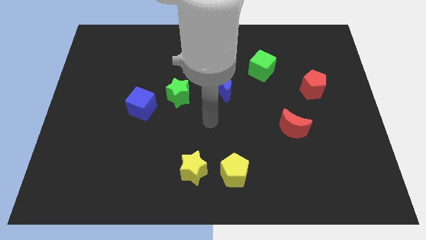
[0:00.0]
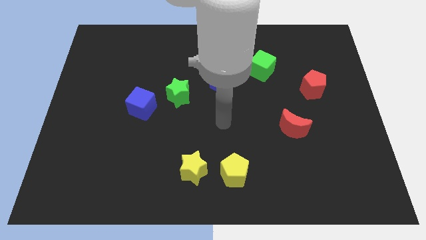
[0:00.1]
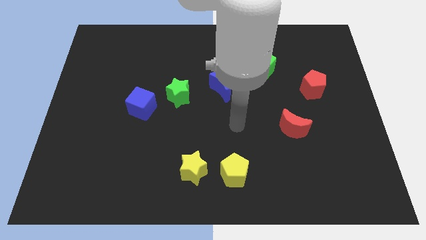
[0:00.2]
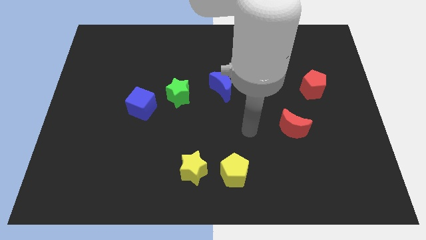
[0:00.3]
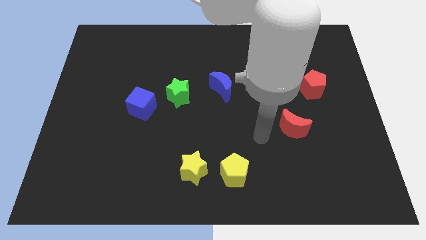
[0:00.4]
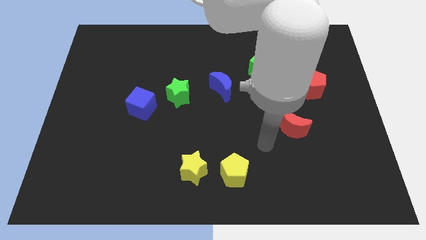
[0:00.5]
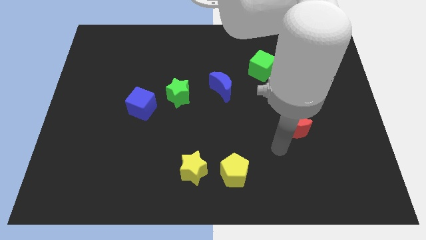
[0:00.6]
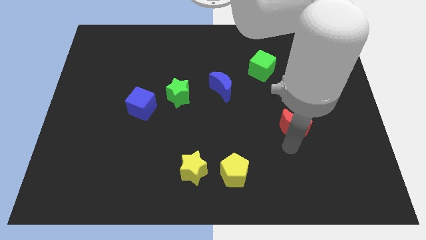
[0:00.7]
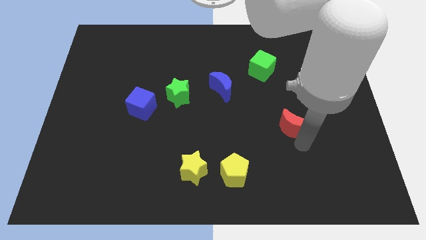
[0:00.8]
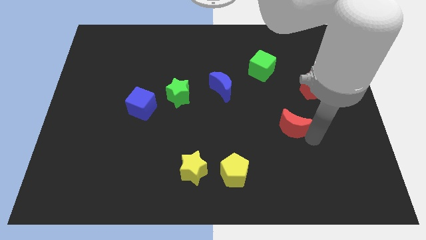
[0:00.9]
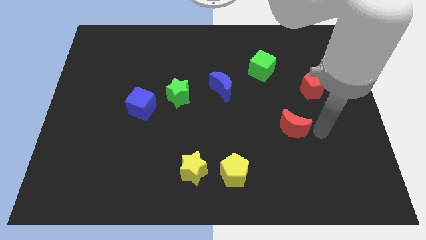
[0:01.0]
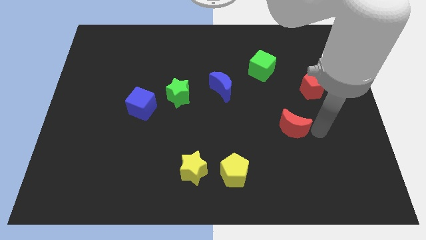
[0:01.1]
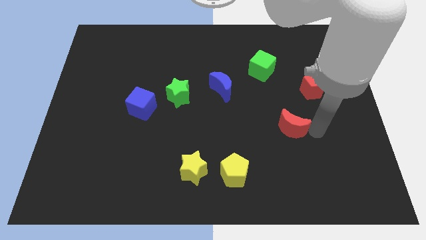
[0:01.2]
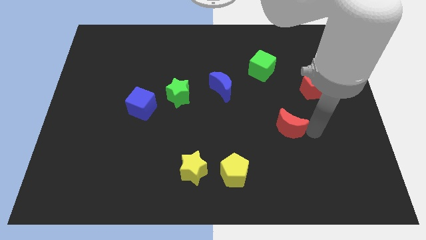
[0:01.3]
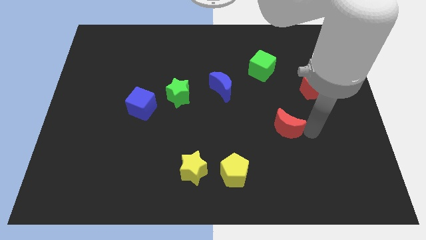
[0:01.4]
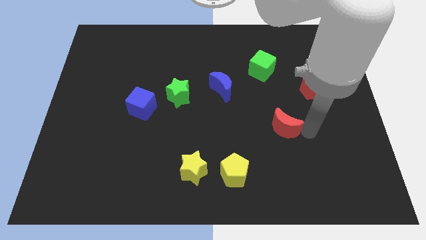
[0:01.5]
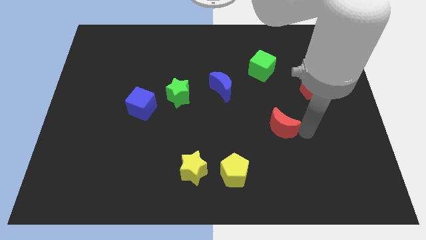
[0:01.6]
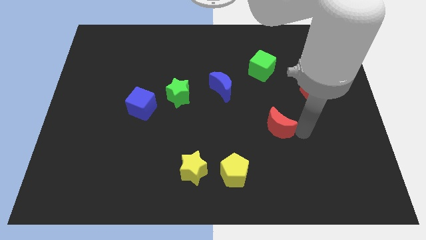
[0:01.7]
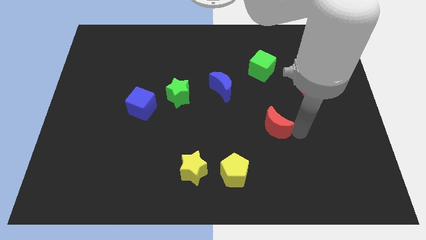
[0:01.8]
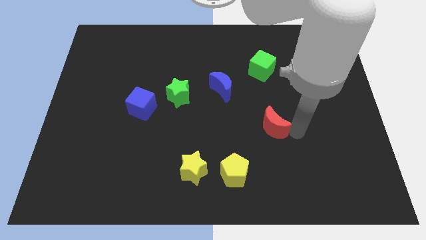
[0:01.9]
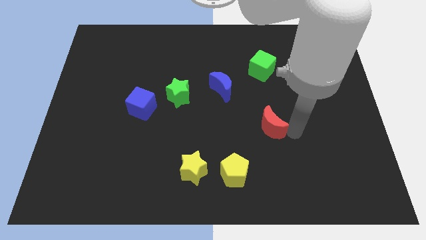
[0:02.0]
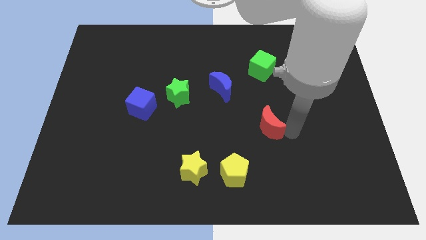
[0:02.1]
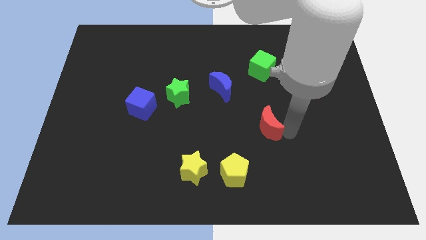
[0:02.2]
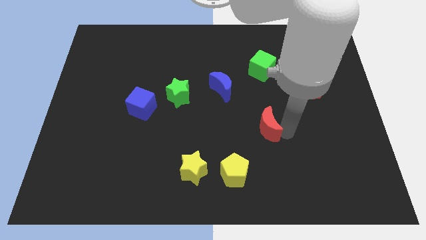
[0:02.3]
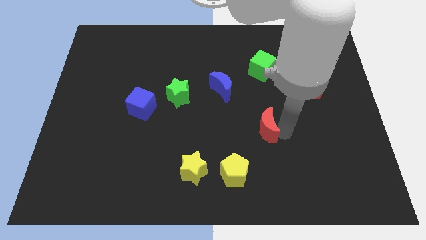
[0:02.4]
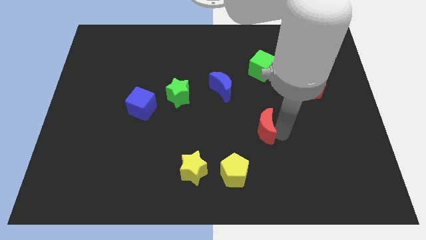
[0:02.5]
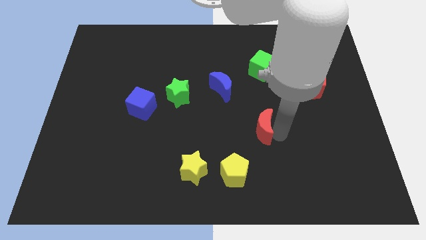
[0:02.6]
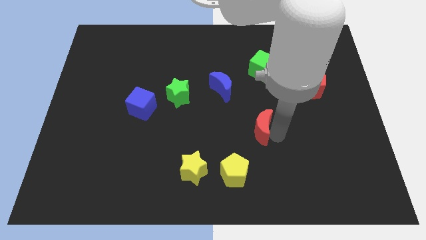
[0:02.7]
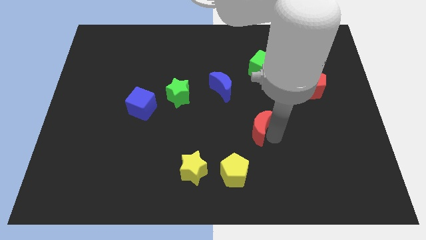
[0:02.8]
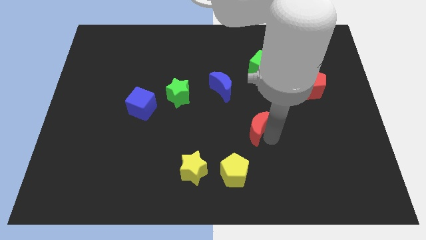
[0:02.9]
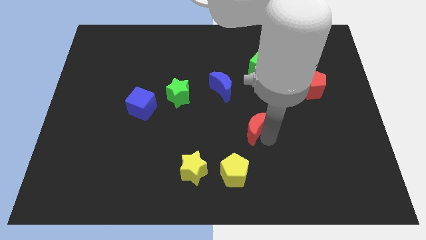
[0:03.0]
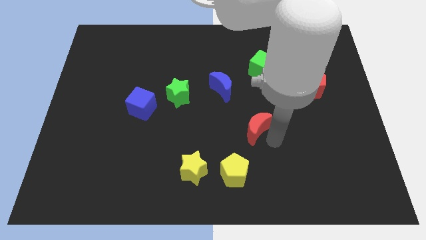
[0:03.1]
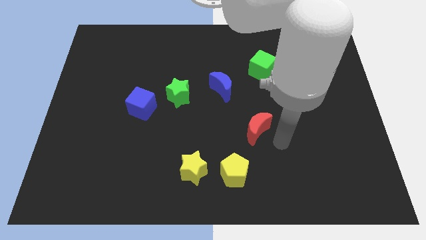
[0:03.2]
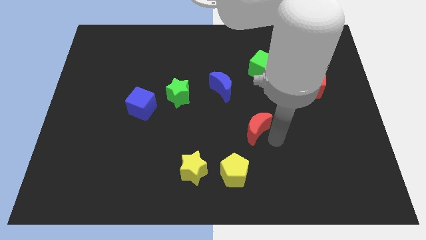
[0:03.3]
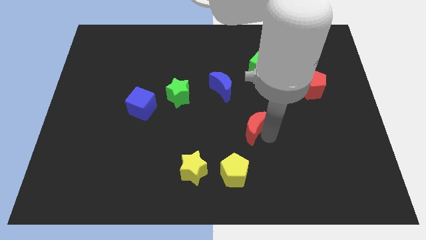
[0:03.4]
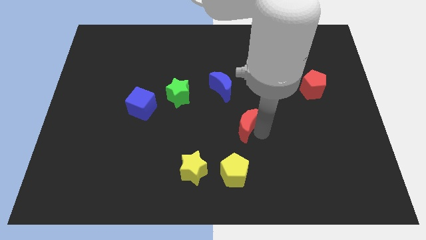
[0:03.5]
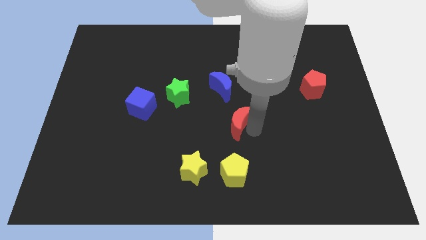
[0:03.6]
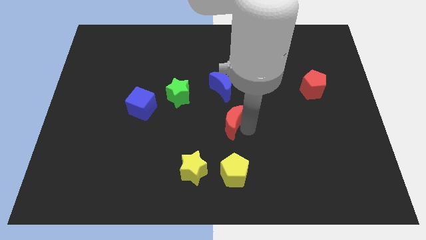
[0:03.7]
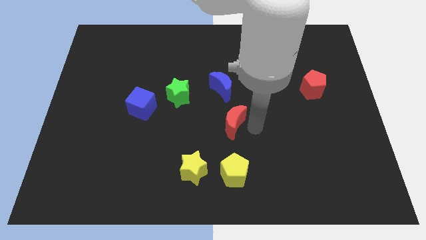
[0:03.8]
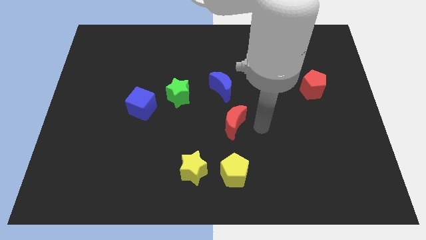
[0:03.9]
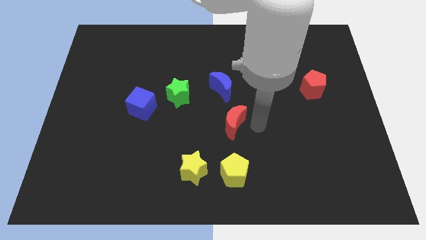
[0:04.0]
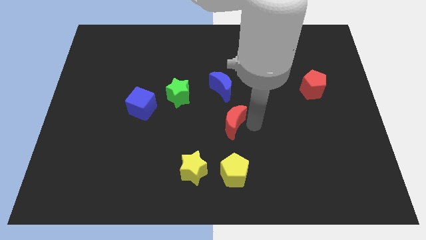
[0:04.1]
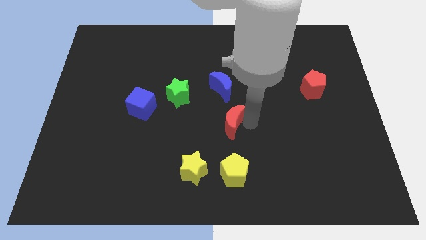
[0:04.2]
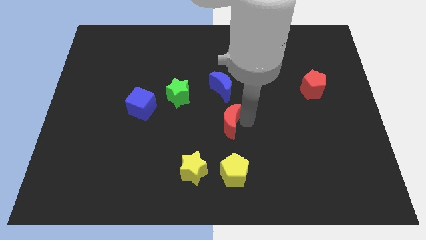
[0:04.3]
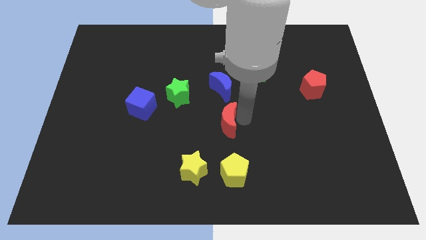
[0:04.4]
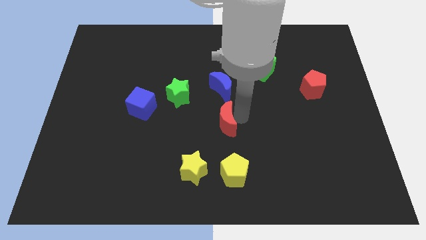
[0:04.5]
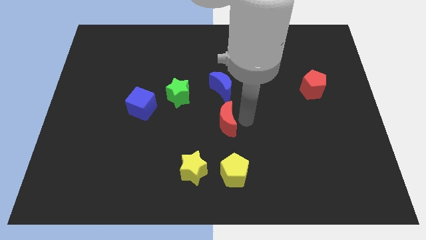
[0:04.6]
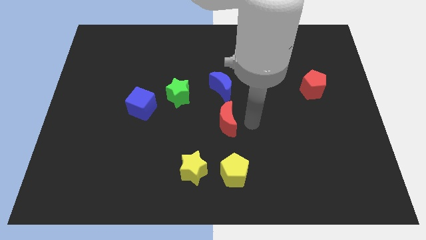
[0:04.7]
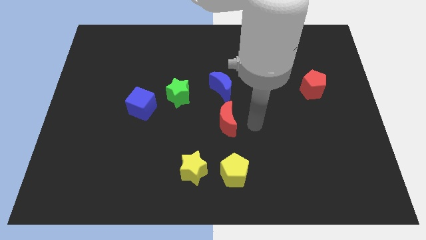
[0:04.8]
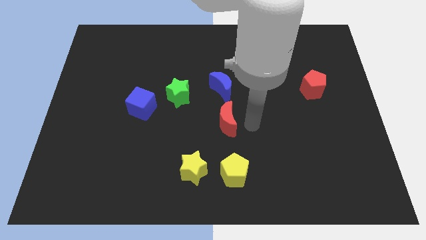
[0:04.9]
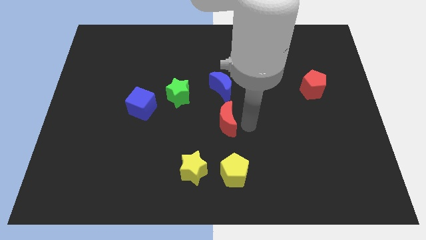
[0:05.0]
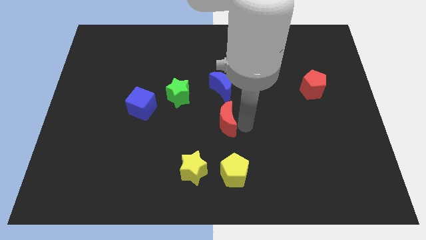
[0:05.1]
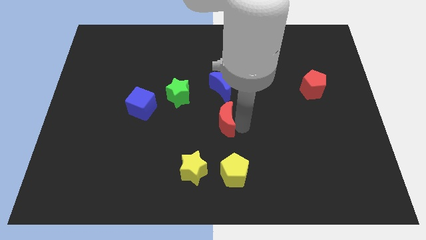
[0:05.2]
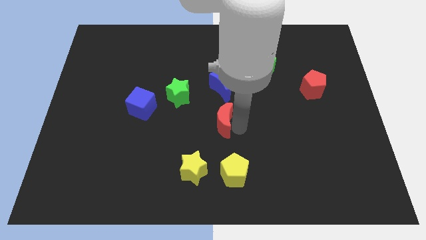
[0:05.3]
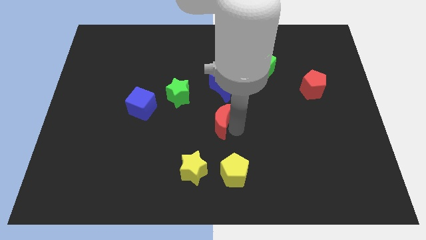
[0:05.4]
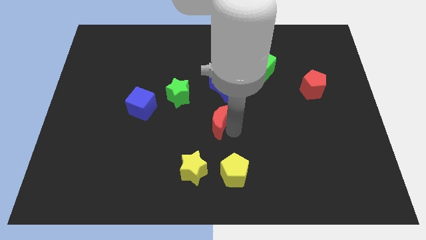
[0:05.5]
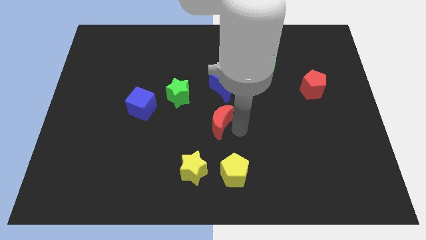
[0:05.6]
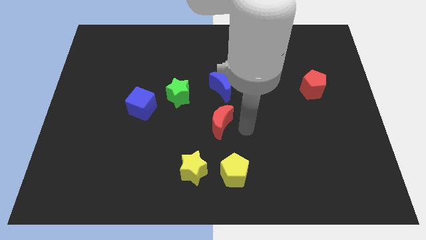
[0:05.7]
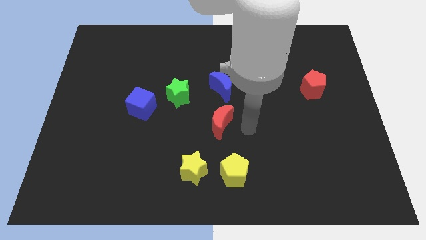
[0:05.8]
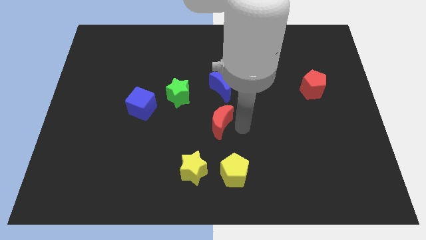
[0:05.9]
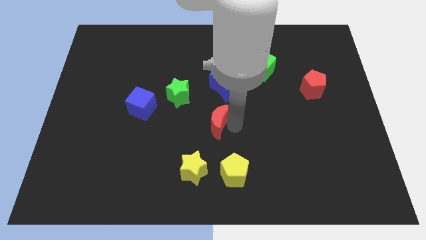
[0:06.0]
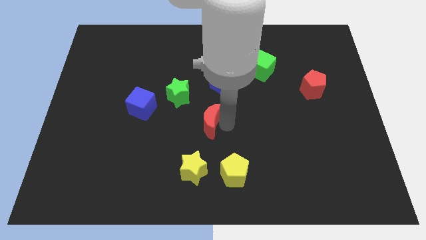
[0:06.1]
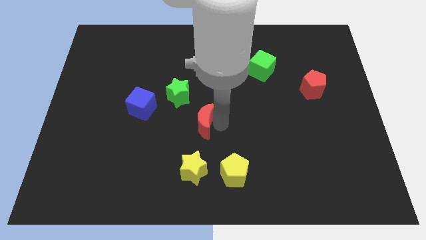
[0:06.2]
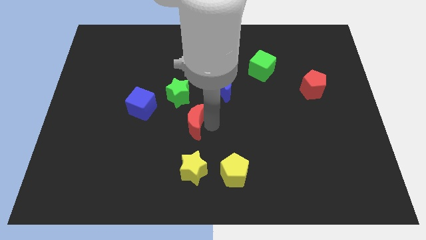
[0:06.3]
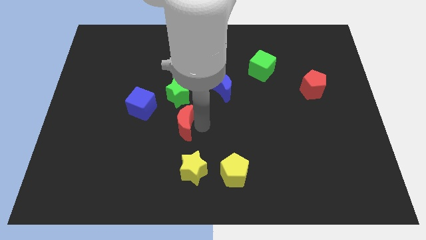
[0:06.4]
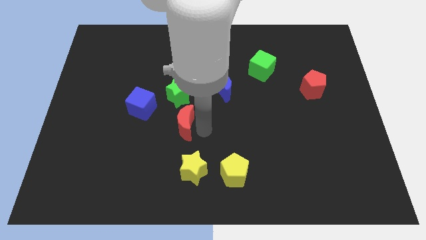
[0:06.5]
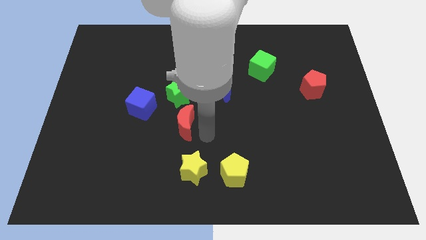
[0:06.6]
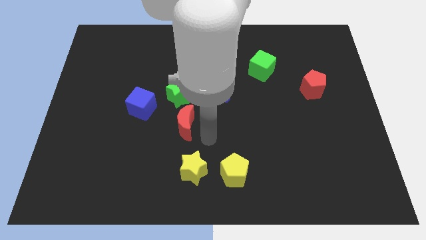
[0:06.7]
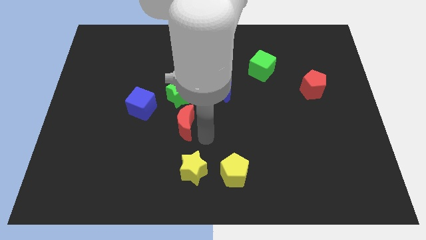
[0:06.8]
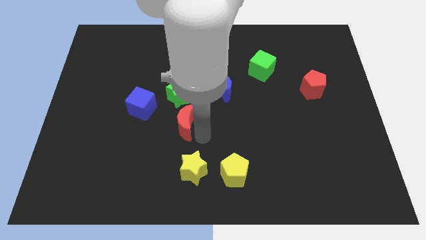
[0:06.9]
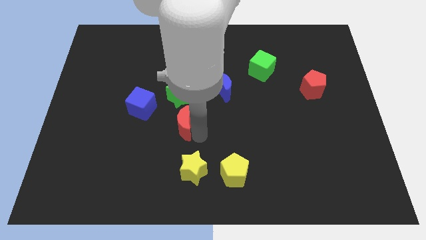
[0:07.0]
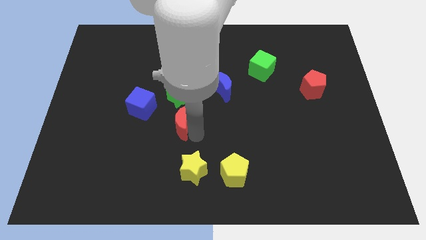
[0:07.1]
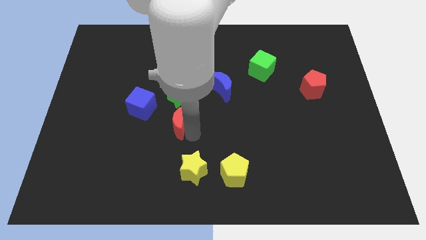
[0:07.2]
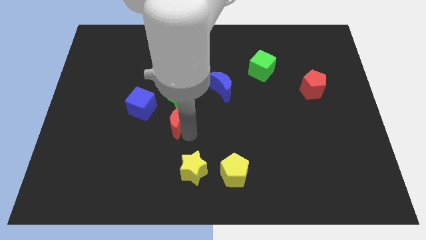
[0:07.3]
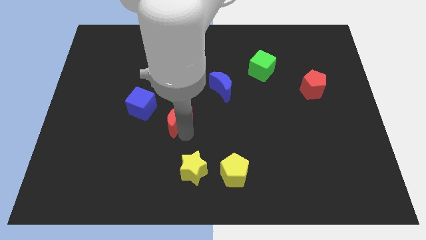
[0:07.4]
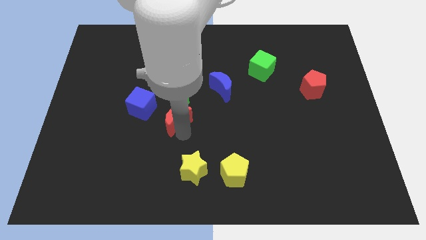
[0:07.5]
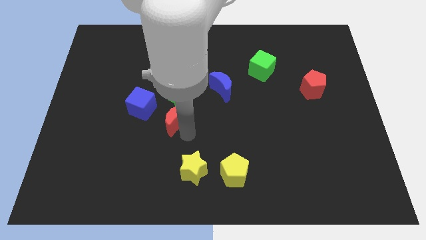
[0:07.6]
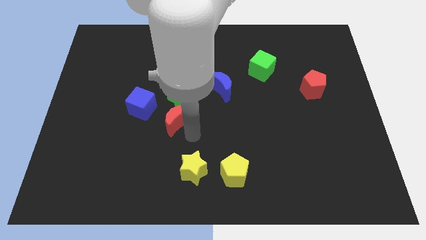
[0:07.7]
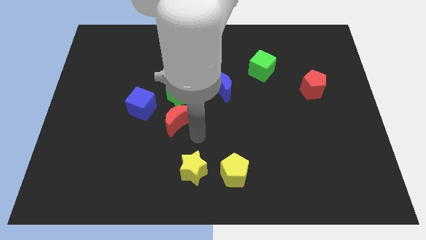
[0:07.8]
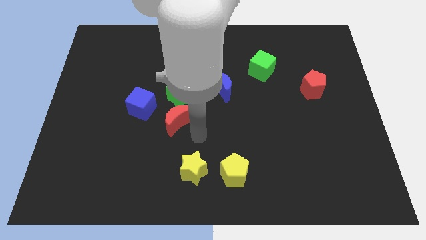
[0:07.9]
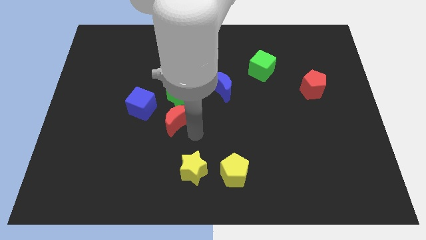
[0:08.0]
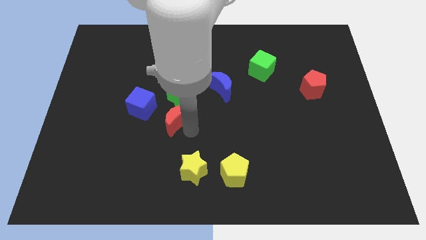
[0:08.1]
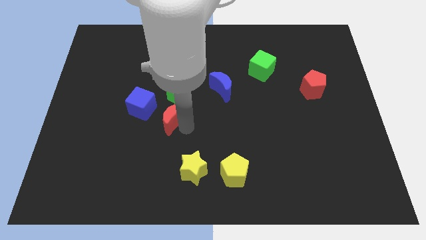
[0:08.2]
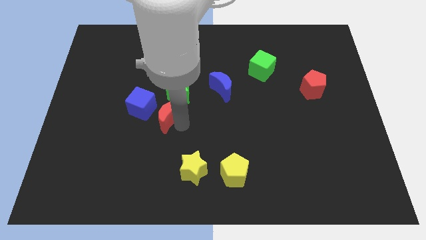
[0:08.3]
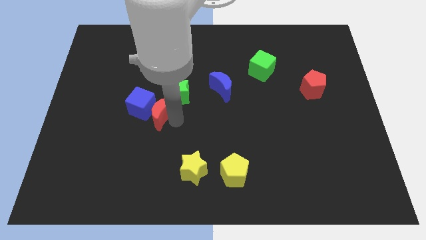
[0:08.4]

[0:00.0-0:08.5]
push the red moon close to the blue cube
